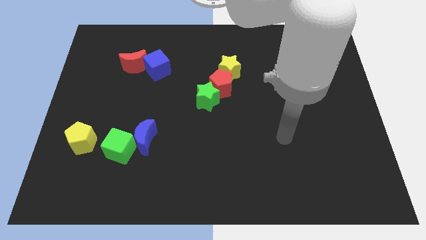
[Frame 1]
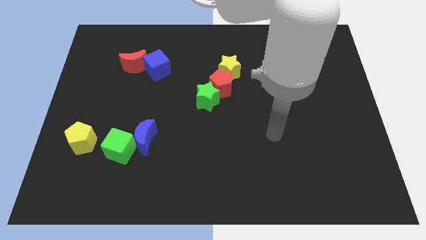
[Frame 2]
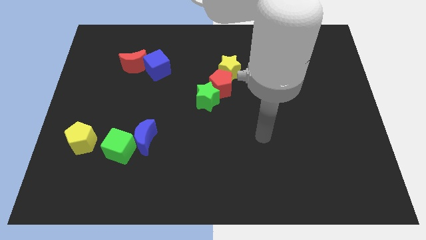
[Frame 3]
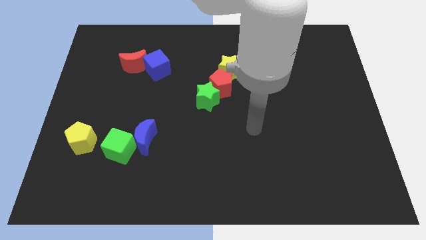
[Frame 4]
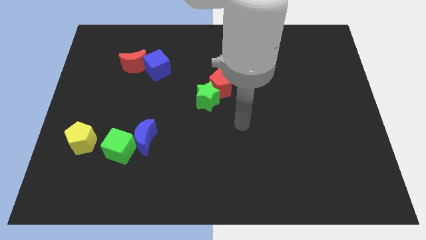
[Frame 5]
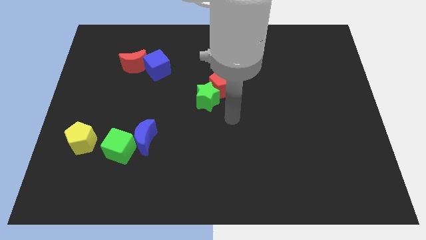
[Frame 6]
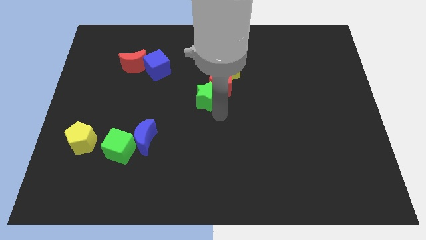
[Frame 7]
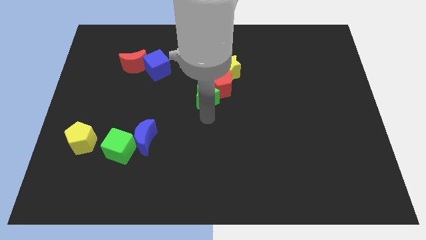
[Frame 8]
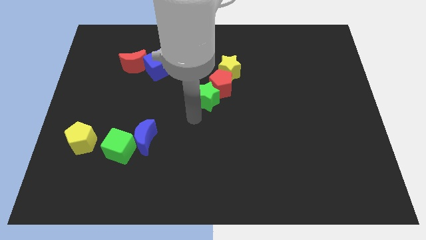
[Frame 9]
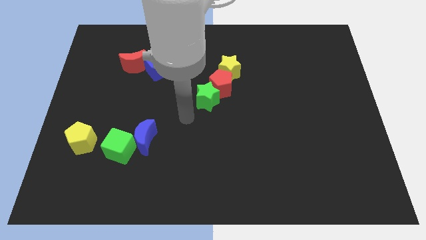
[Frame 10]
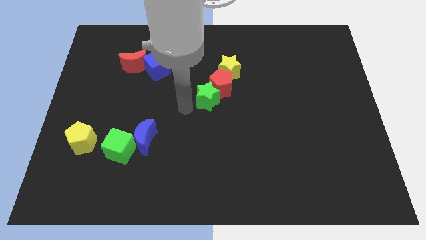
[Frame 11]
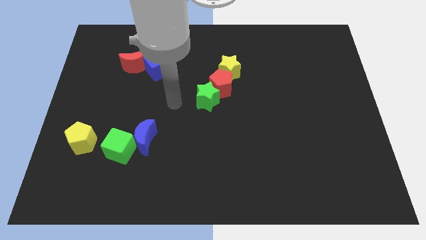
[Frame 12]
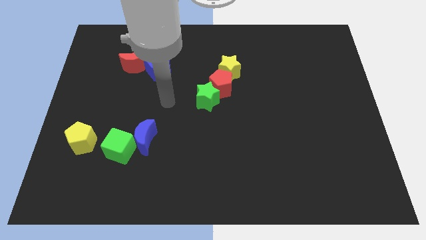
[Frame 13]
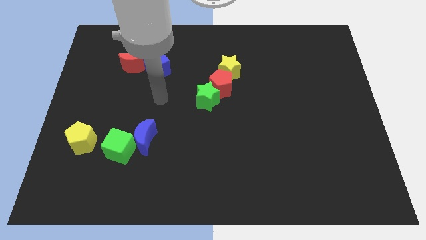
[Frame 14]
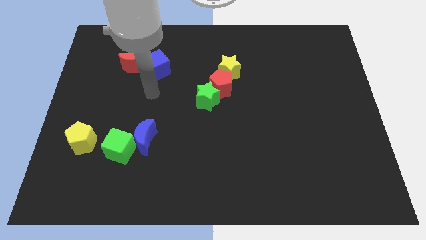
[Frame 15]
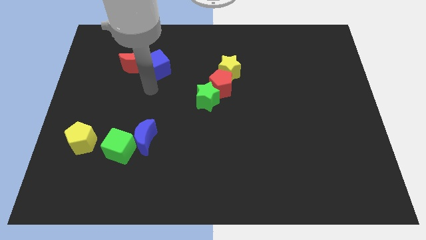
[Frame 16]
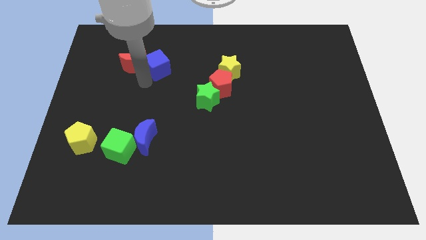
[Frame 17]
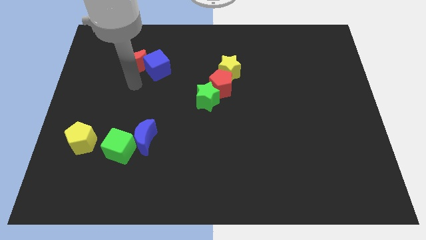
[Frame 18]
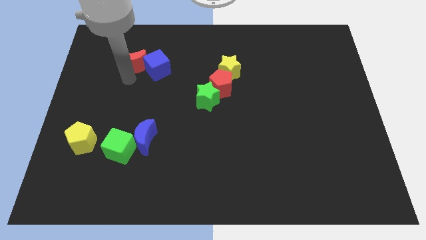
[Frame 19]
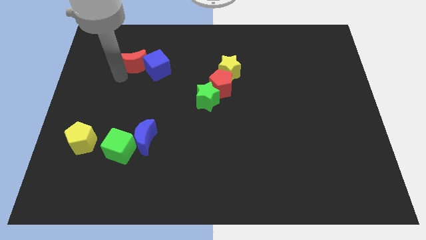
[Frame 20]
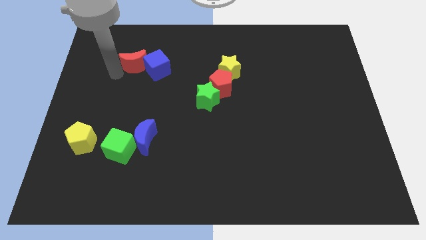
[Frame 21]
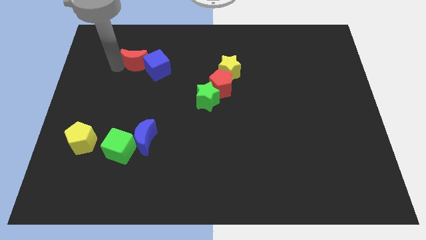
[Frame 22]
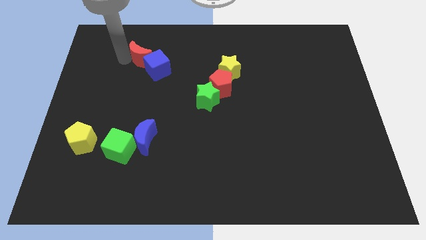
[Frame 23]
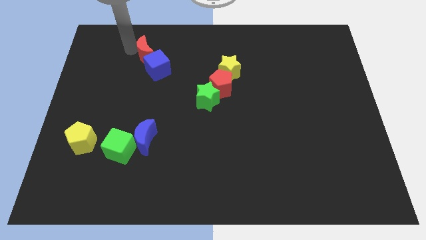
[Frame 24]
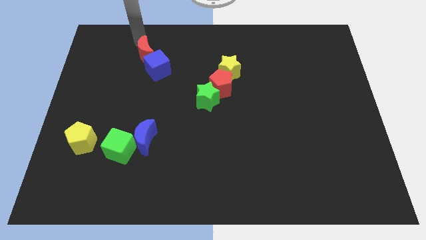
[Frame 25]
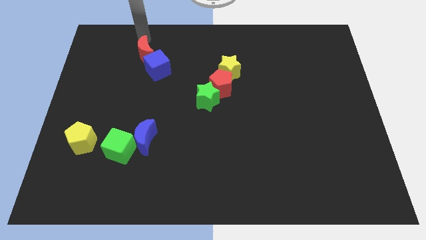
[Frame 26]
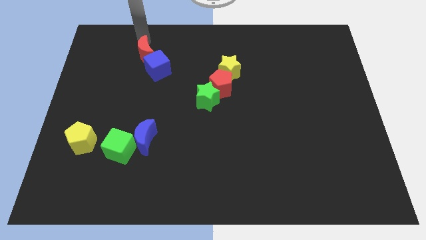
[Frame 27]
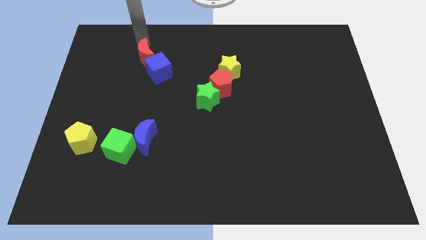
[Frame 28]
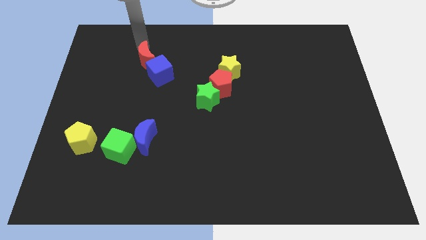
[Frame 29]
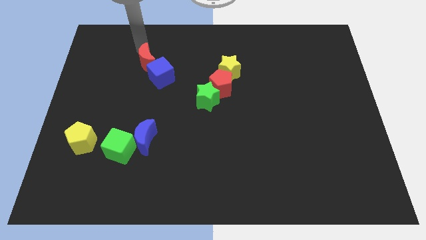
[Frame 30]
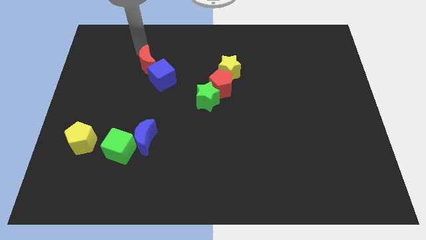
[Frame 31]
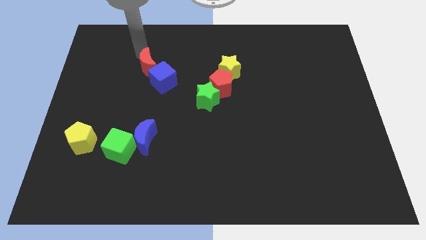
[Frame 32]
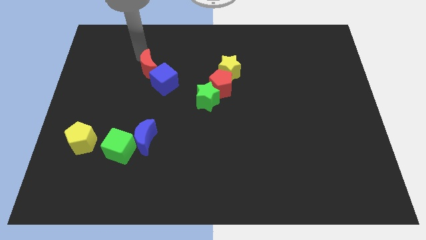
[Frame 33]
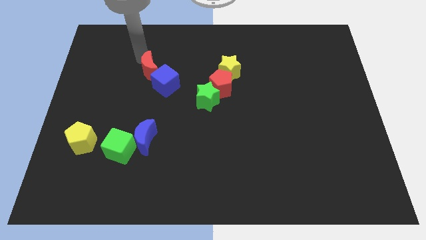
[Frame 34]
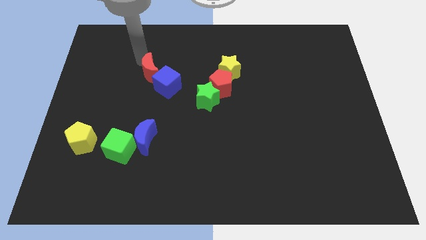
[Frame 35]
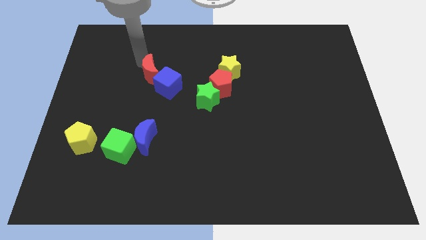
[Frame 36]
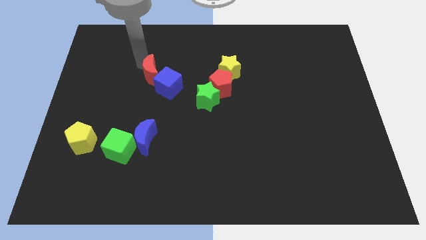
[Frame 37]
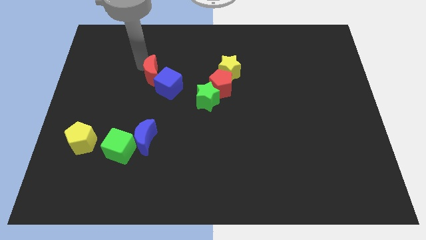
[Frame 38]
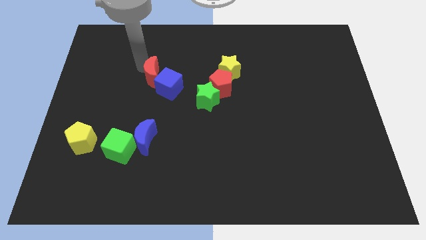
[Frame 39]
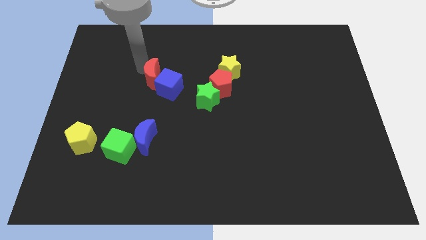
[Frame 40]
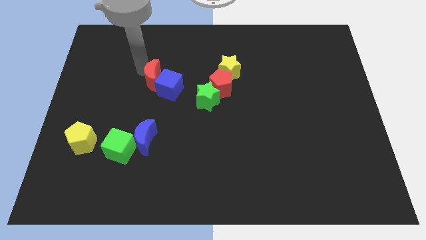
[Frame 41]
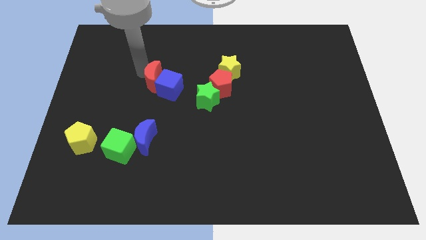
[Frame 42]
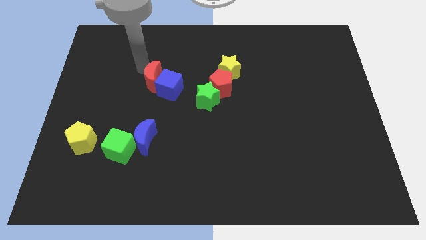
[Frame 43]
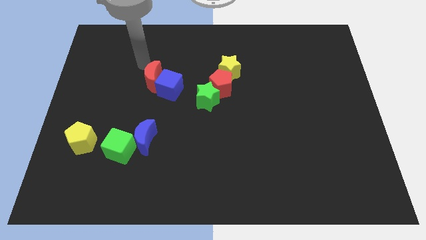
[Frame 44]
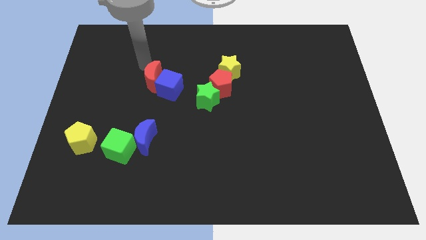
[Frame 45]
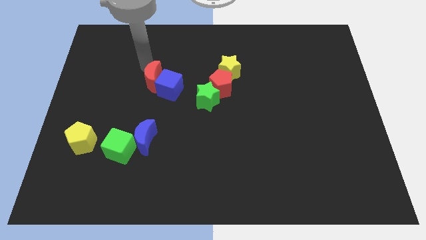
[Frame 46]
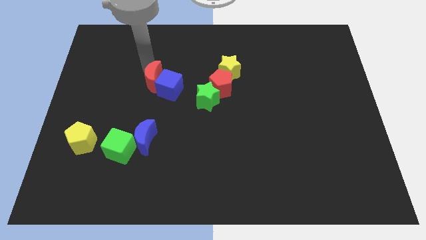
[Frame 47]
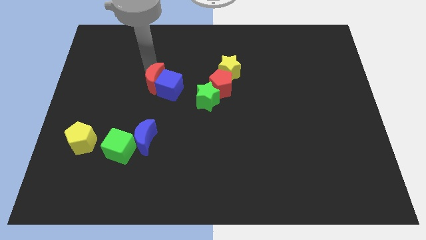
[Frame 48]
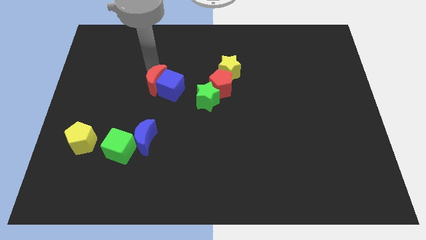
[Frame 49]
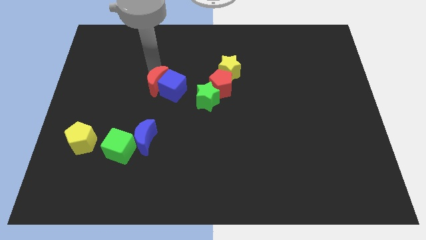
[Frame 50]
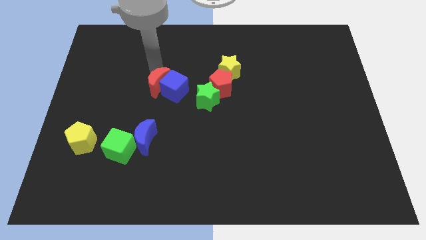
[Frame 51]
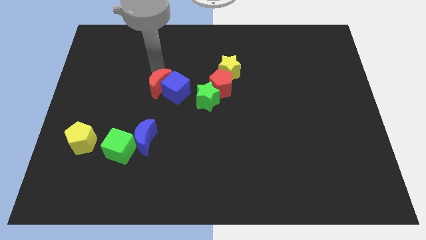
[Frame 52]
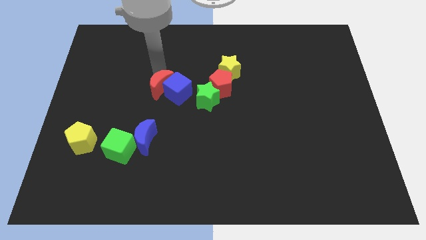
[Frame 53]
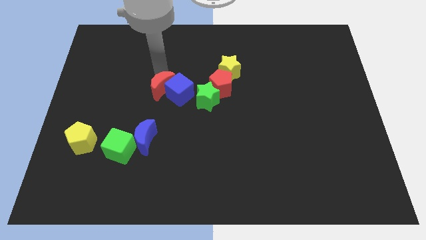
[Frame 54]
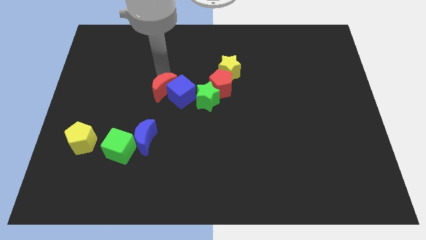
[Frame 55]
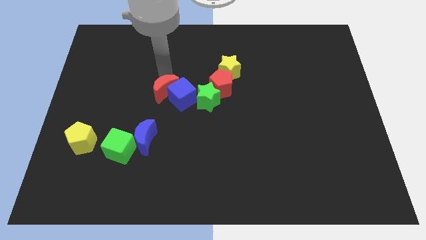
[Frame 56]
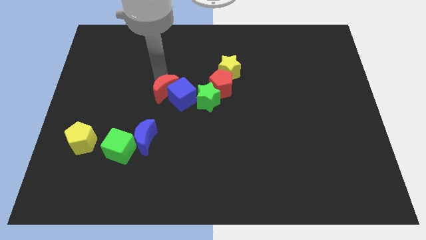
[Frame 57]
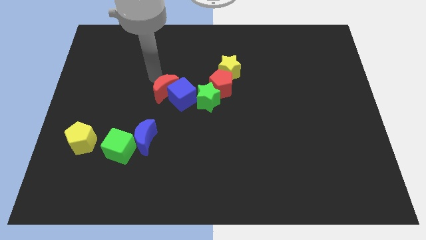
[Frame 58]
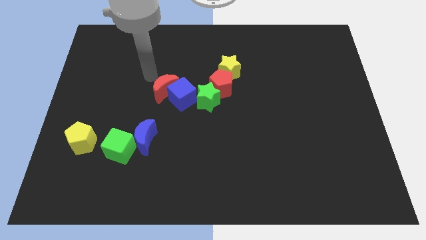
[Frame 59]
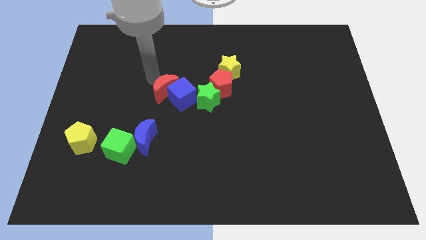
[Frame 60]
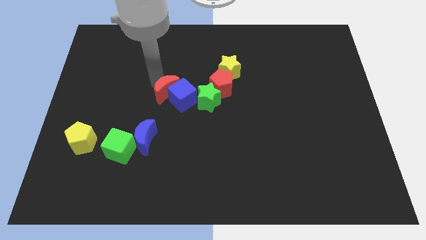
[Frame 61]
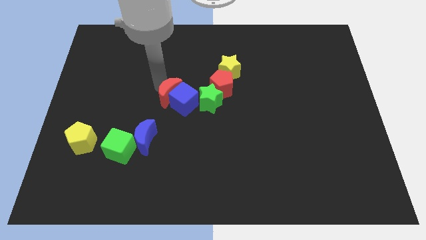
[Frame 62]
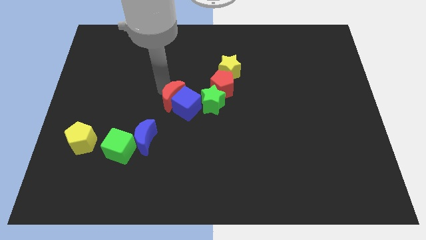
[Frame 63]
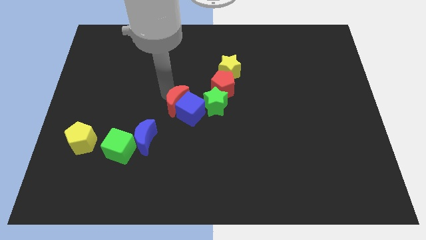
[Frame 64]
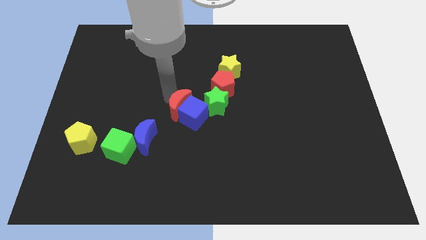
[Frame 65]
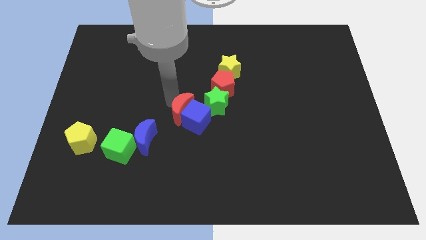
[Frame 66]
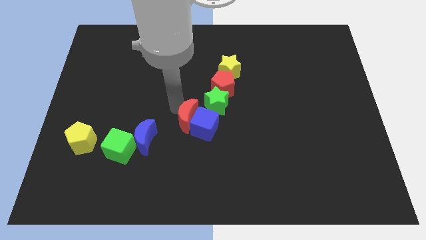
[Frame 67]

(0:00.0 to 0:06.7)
push the red moon down and right

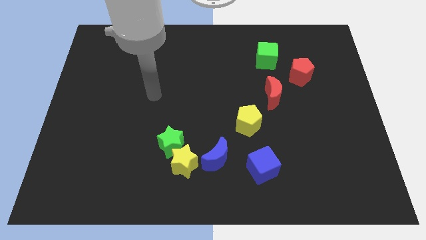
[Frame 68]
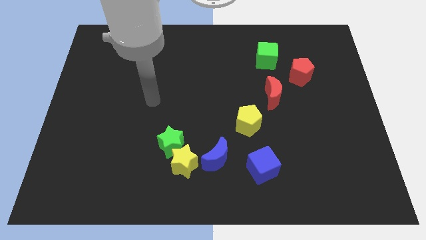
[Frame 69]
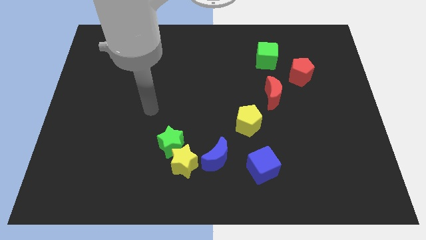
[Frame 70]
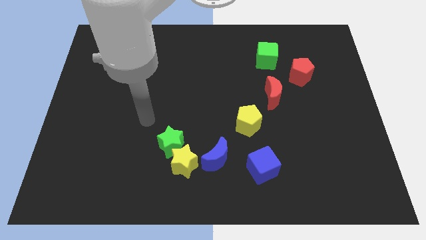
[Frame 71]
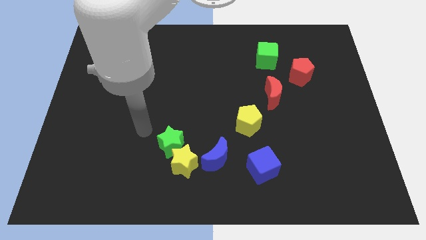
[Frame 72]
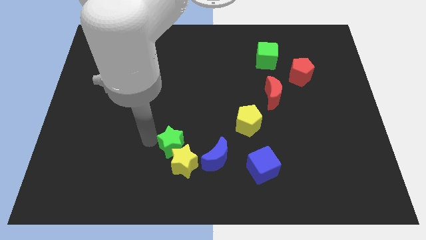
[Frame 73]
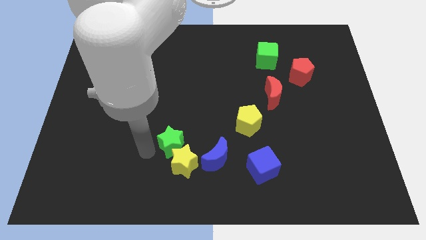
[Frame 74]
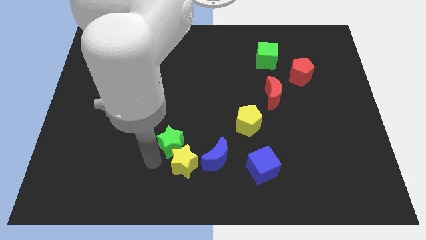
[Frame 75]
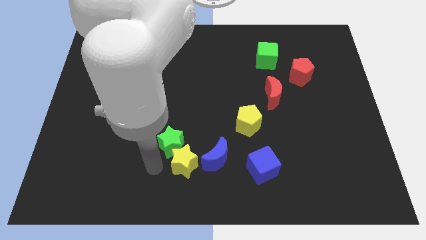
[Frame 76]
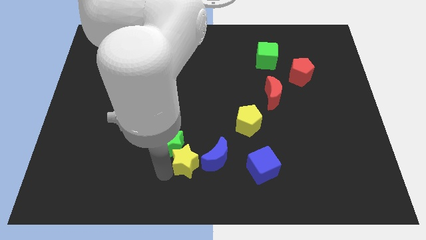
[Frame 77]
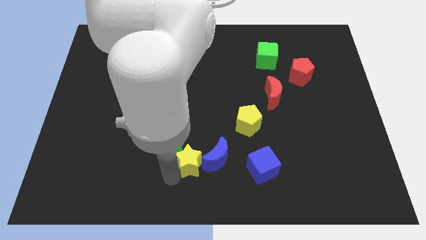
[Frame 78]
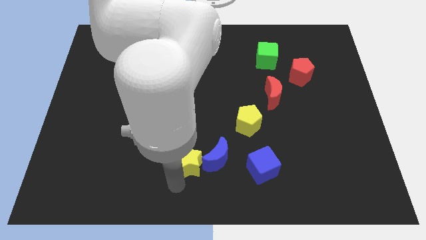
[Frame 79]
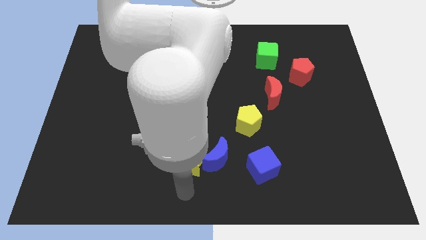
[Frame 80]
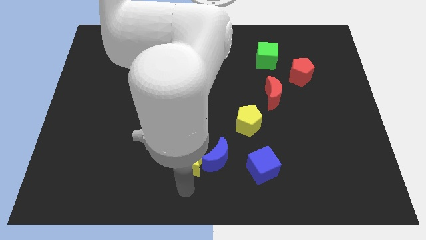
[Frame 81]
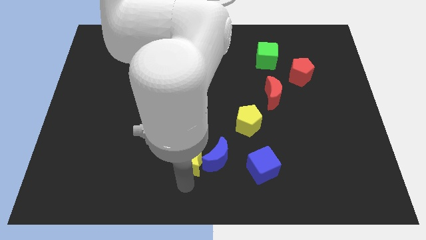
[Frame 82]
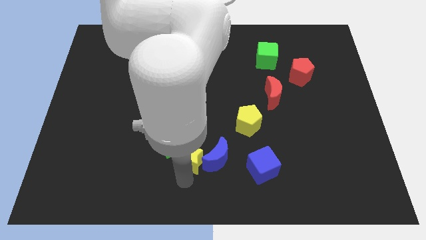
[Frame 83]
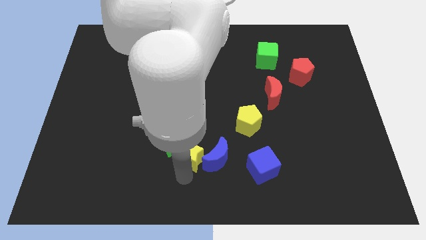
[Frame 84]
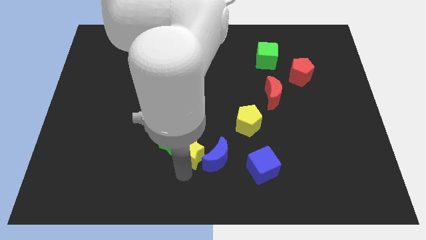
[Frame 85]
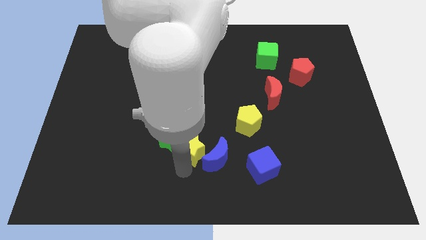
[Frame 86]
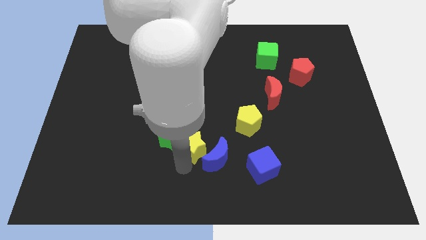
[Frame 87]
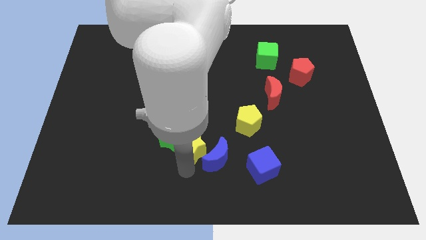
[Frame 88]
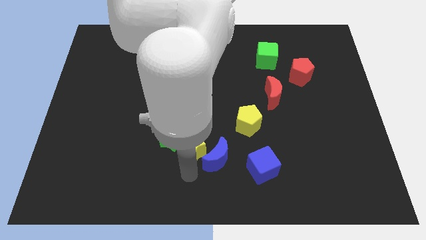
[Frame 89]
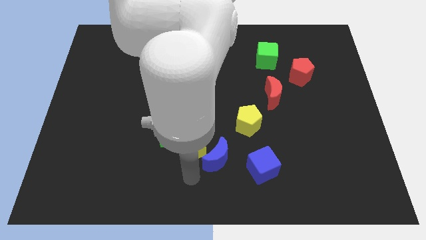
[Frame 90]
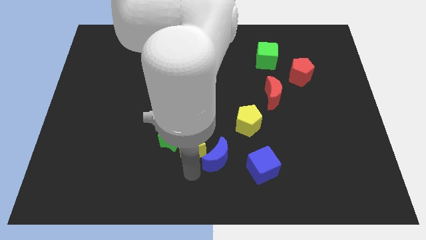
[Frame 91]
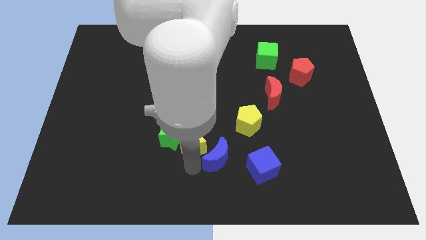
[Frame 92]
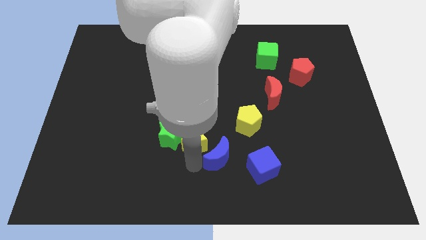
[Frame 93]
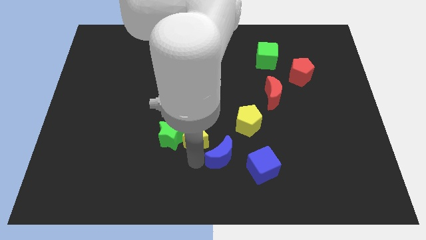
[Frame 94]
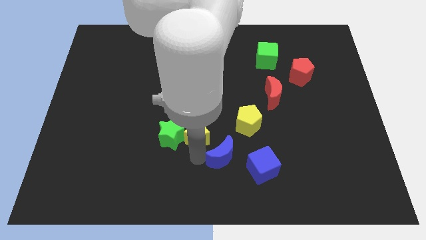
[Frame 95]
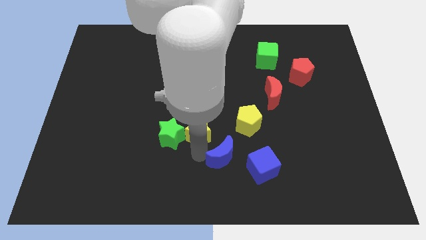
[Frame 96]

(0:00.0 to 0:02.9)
slide the yellow star upwards a little bit
